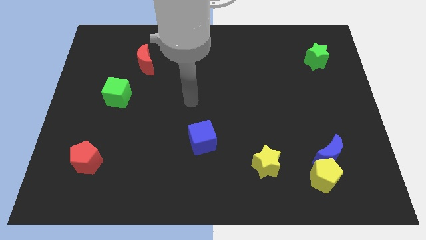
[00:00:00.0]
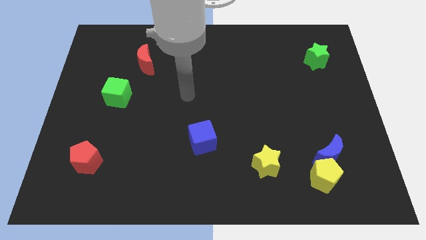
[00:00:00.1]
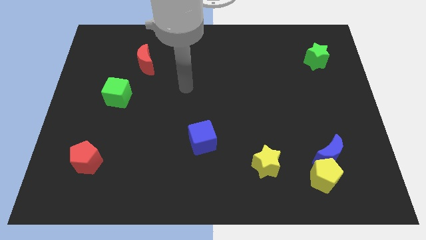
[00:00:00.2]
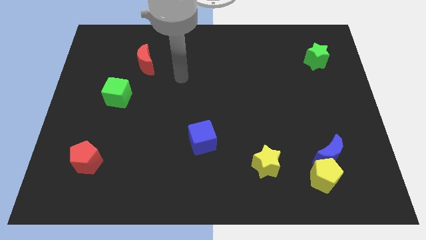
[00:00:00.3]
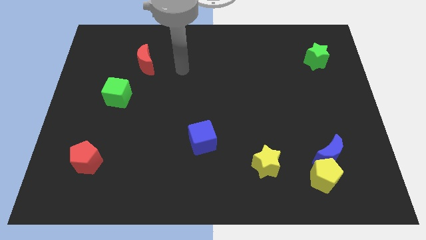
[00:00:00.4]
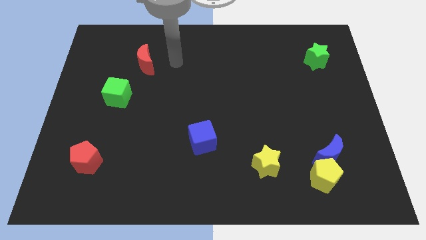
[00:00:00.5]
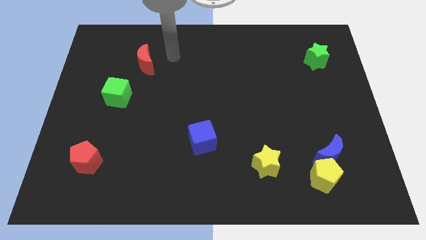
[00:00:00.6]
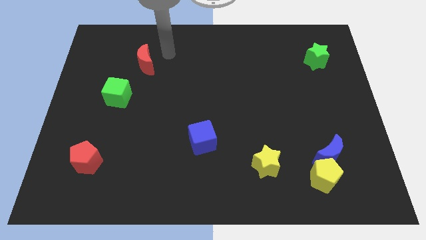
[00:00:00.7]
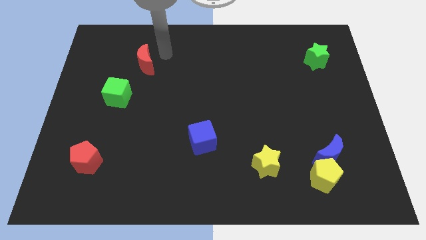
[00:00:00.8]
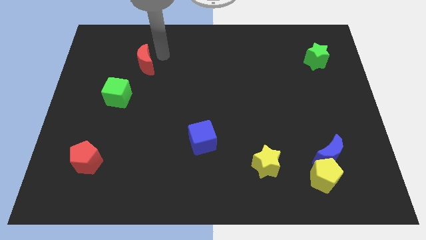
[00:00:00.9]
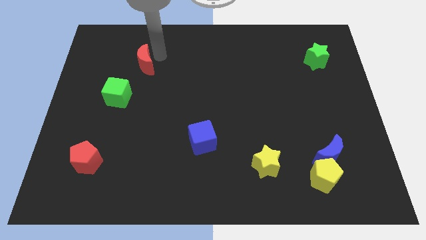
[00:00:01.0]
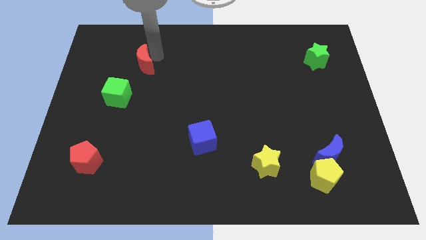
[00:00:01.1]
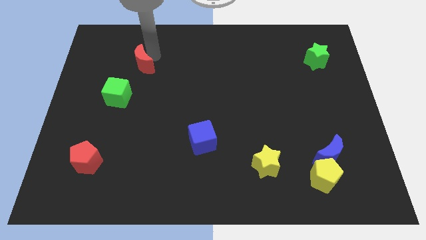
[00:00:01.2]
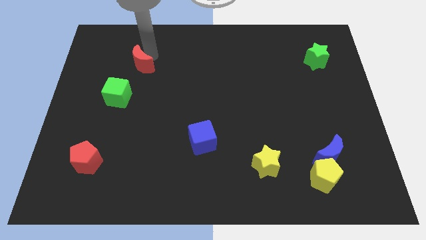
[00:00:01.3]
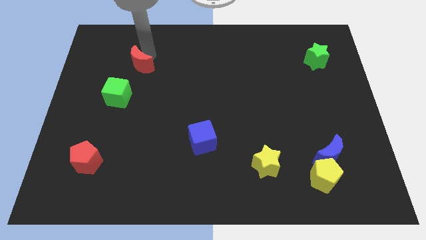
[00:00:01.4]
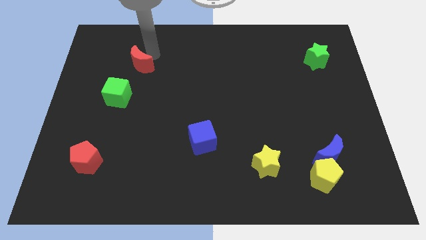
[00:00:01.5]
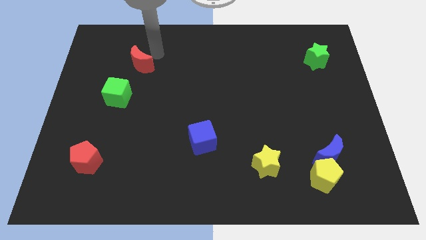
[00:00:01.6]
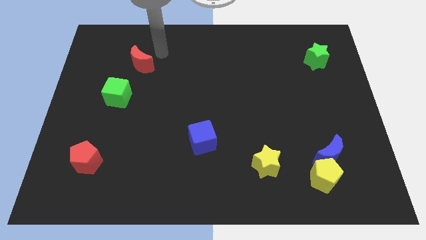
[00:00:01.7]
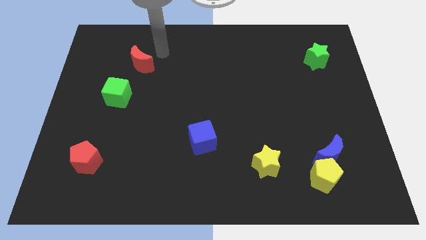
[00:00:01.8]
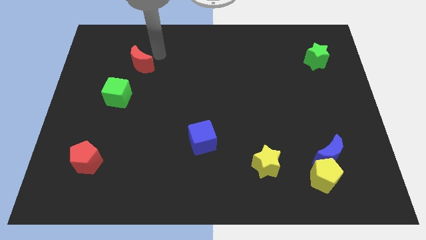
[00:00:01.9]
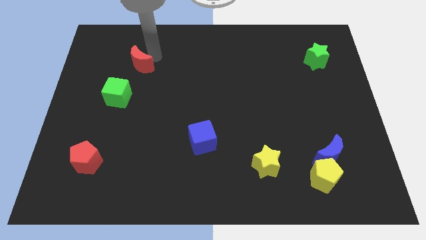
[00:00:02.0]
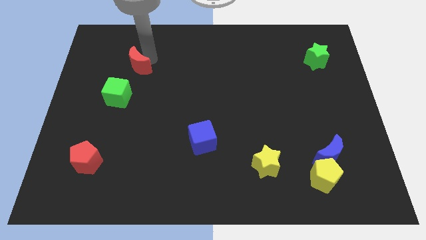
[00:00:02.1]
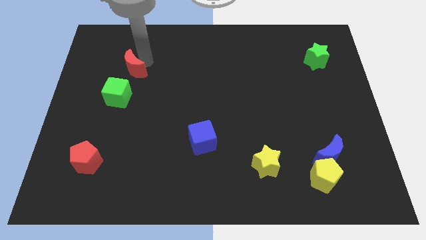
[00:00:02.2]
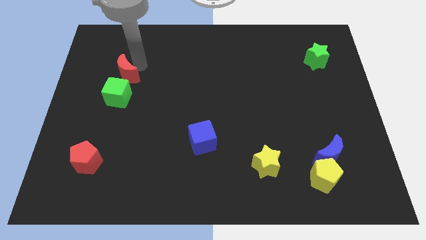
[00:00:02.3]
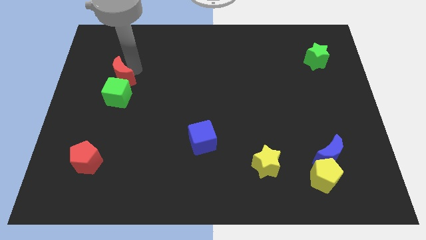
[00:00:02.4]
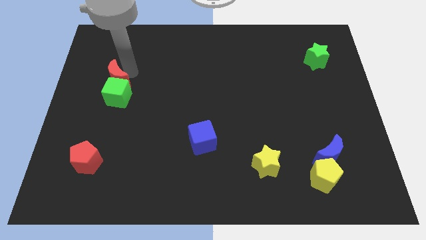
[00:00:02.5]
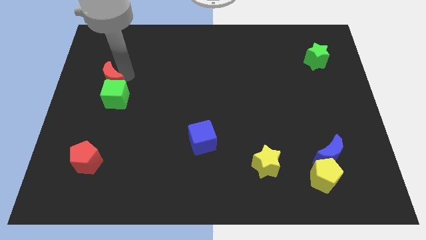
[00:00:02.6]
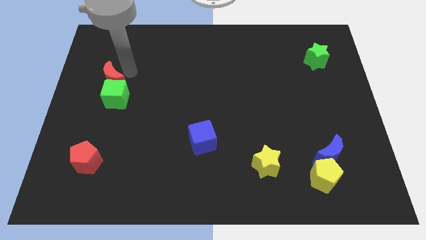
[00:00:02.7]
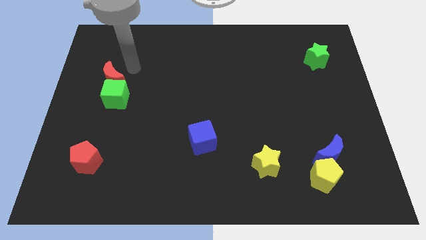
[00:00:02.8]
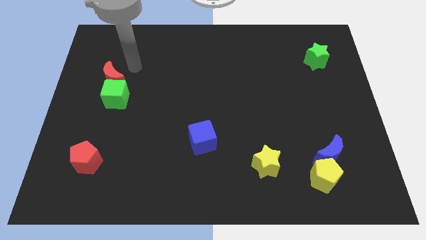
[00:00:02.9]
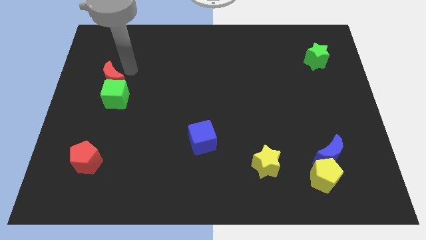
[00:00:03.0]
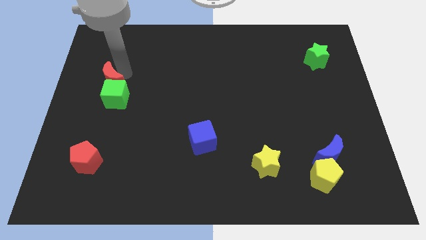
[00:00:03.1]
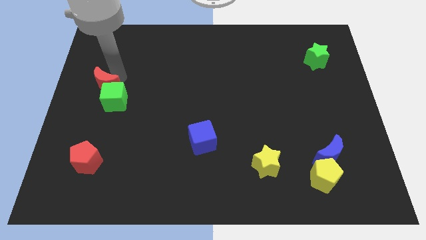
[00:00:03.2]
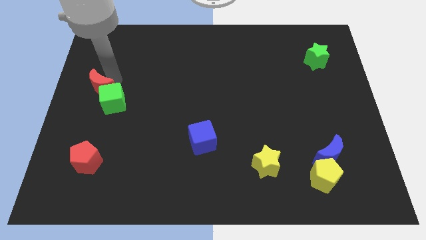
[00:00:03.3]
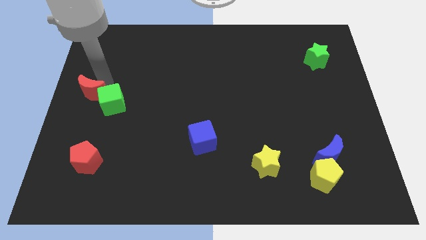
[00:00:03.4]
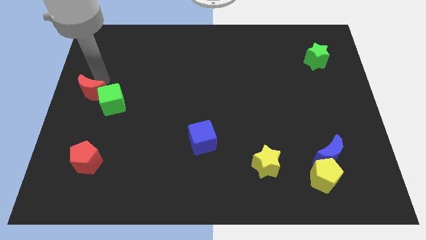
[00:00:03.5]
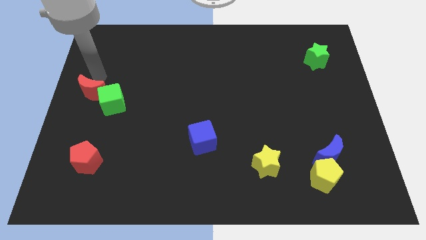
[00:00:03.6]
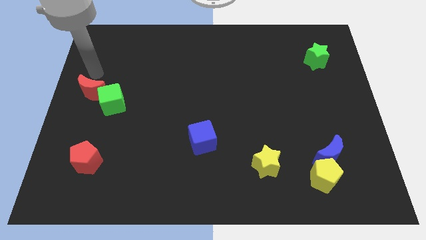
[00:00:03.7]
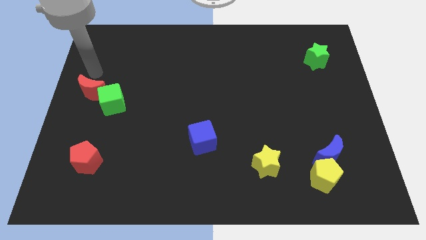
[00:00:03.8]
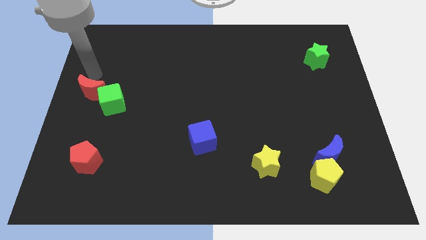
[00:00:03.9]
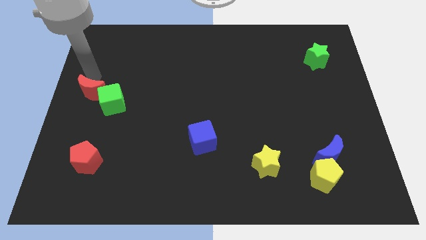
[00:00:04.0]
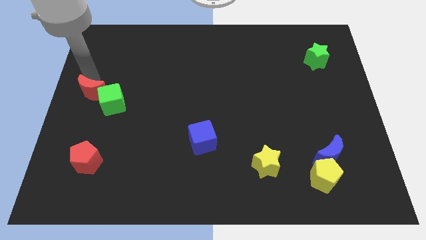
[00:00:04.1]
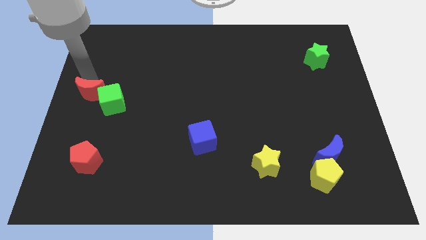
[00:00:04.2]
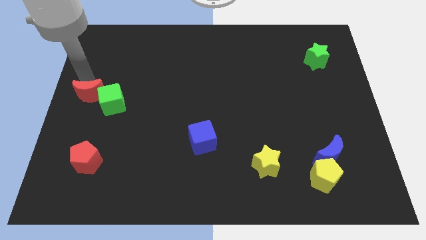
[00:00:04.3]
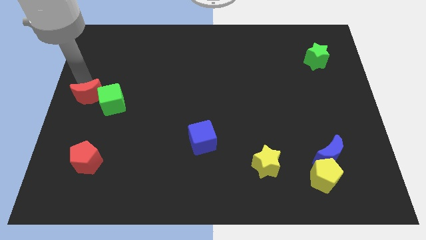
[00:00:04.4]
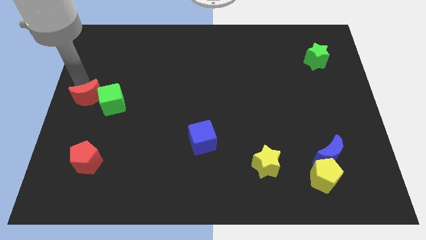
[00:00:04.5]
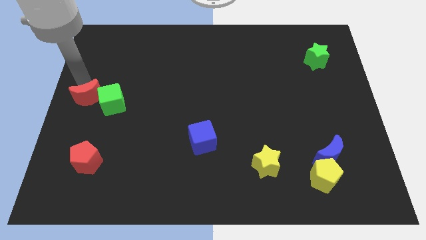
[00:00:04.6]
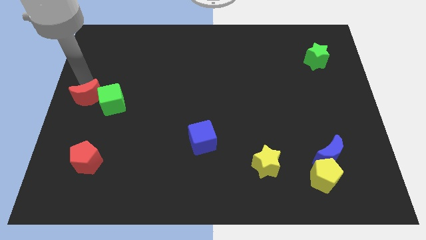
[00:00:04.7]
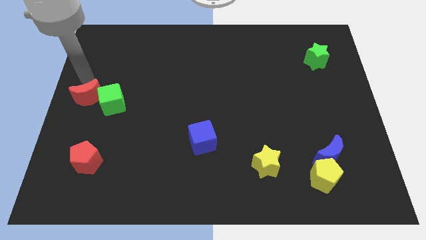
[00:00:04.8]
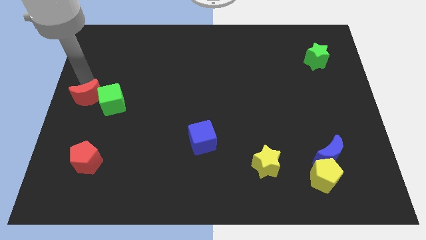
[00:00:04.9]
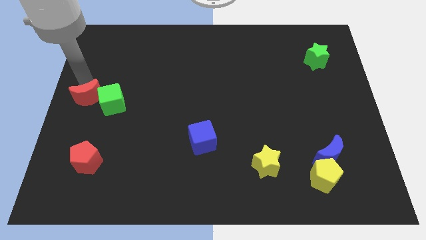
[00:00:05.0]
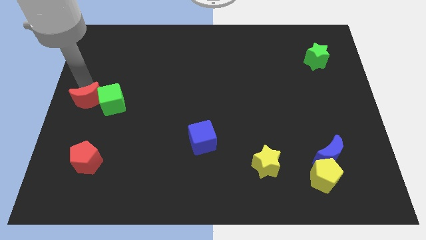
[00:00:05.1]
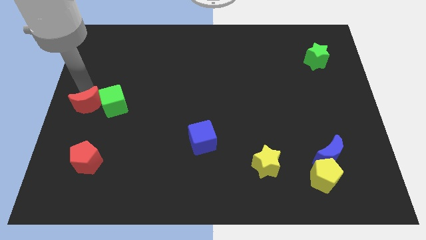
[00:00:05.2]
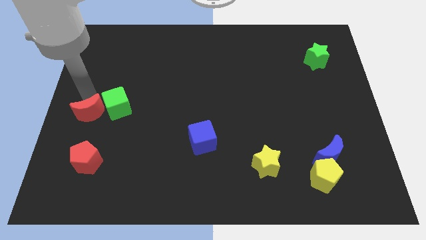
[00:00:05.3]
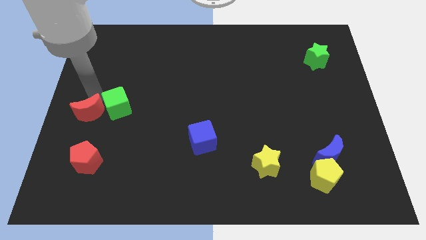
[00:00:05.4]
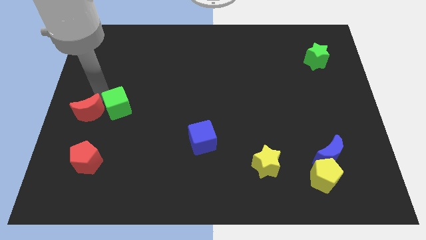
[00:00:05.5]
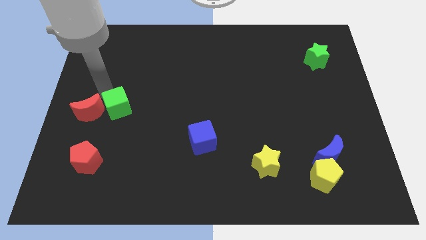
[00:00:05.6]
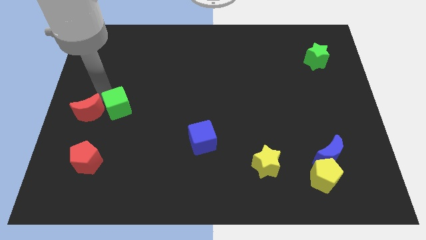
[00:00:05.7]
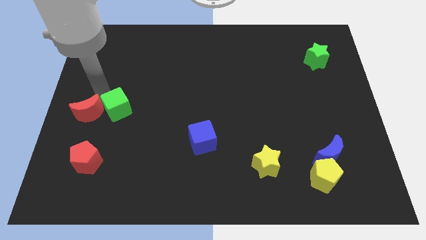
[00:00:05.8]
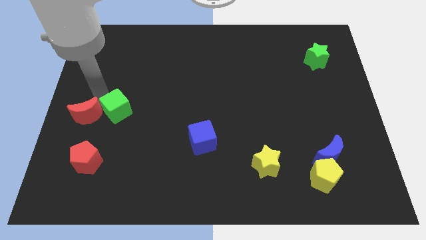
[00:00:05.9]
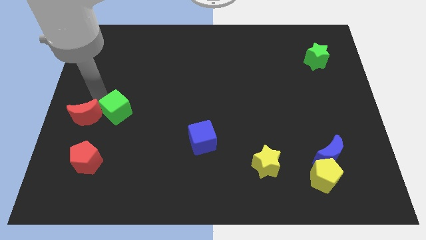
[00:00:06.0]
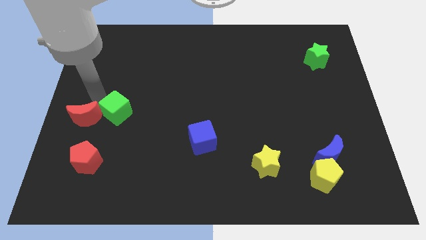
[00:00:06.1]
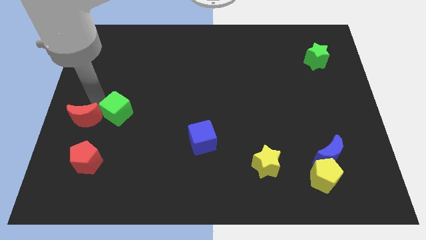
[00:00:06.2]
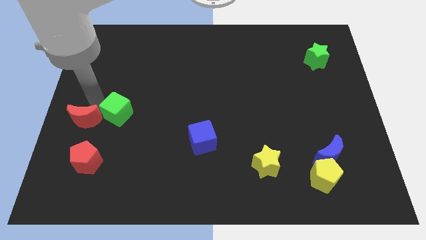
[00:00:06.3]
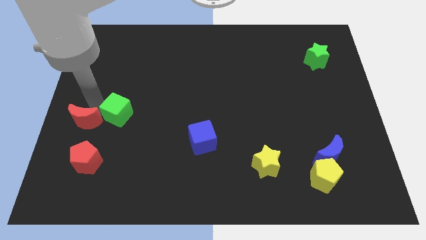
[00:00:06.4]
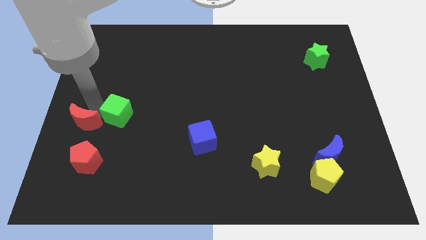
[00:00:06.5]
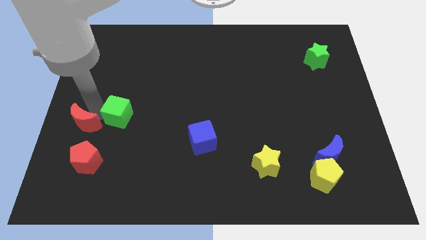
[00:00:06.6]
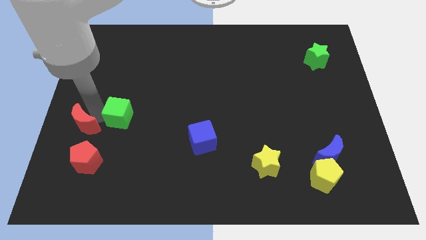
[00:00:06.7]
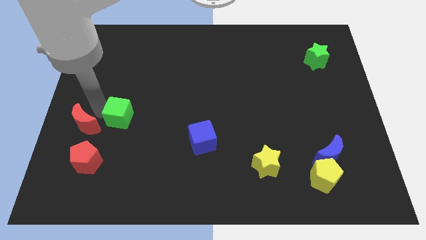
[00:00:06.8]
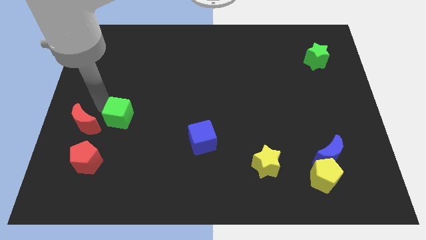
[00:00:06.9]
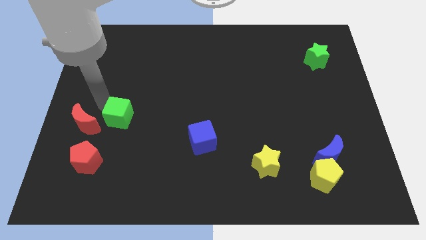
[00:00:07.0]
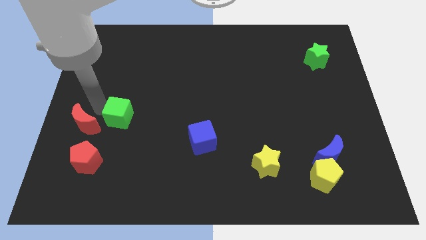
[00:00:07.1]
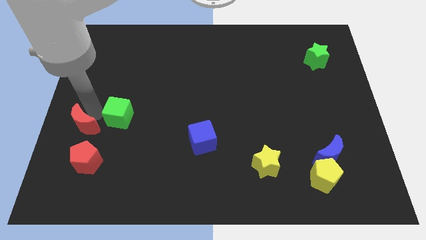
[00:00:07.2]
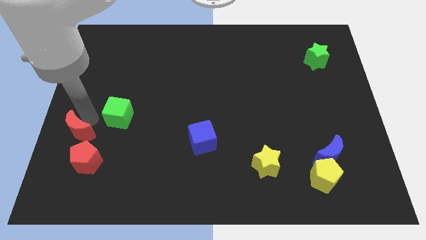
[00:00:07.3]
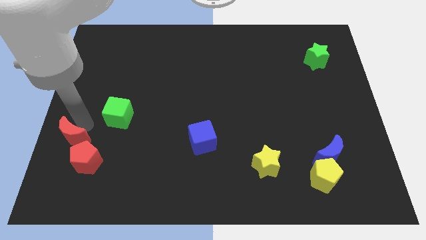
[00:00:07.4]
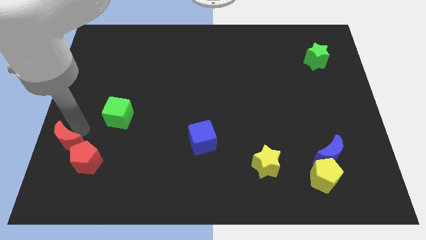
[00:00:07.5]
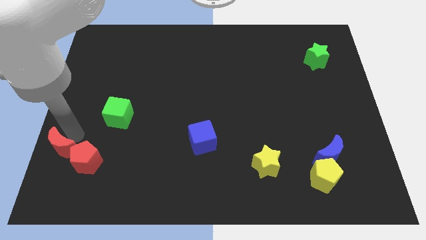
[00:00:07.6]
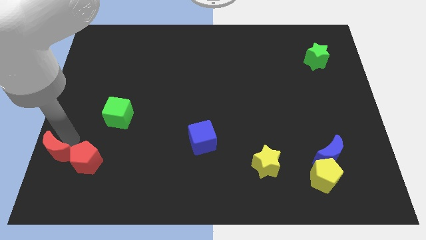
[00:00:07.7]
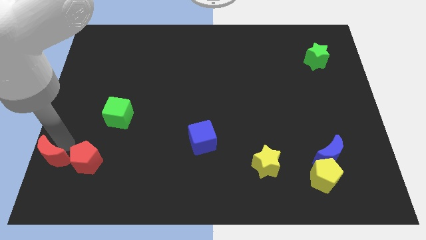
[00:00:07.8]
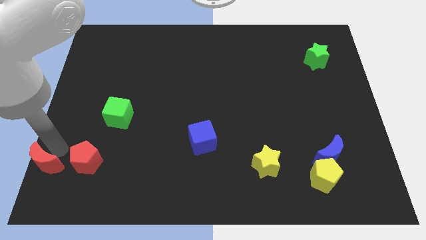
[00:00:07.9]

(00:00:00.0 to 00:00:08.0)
slide the red moon to the bottom left
